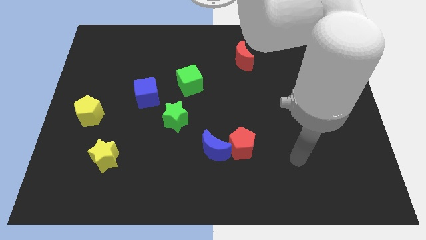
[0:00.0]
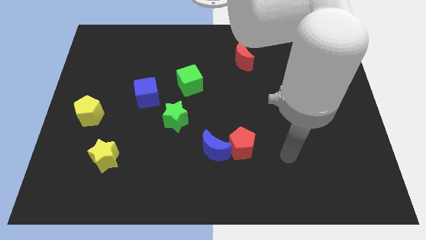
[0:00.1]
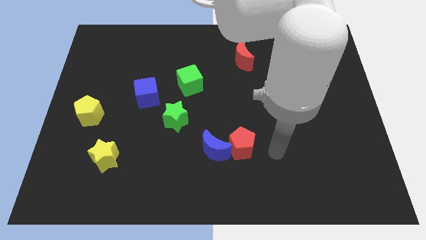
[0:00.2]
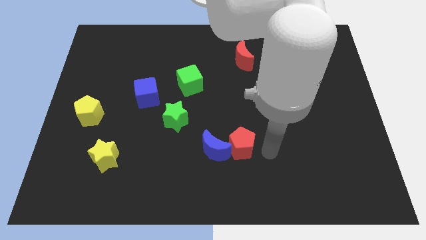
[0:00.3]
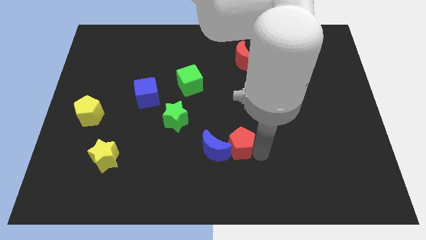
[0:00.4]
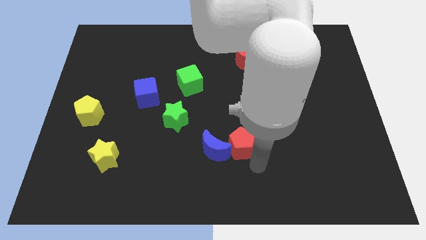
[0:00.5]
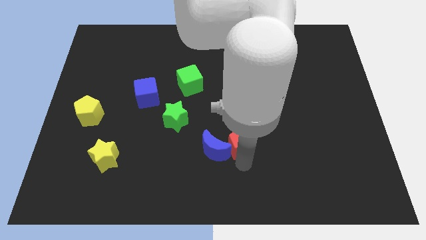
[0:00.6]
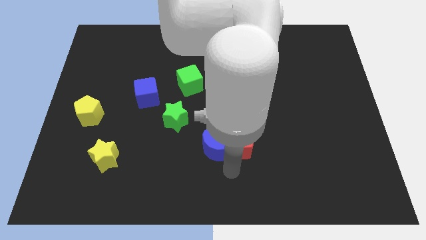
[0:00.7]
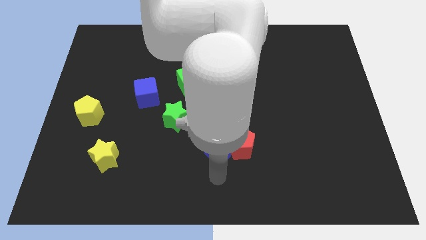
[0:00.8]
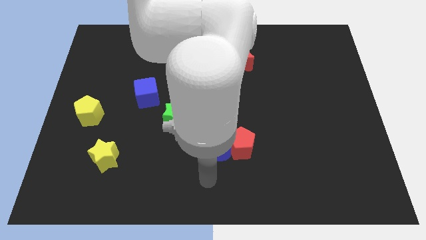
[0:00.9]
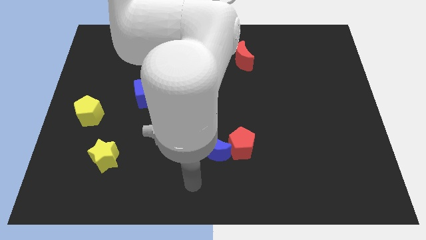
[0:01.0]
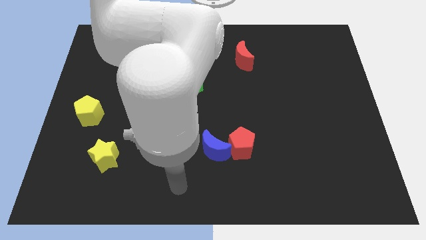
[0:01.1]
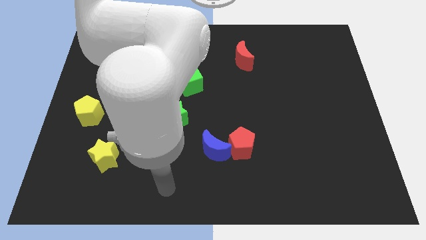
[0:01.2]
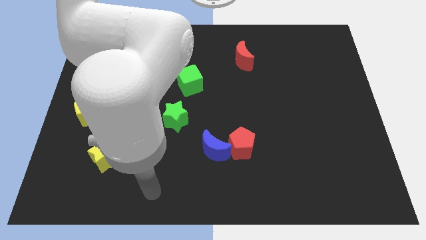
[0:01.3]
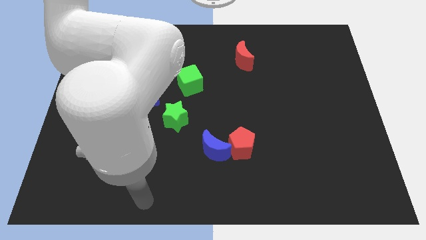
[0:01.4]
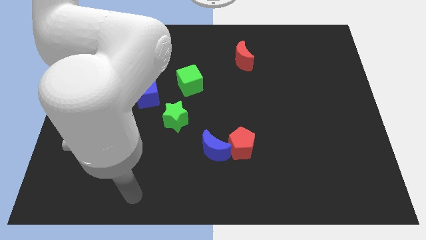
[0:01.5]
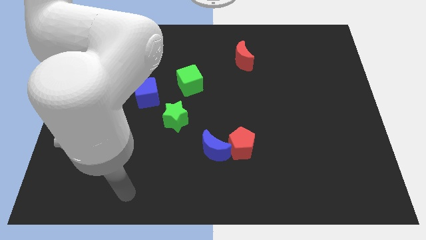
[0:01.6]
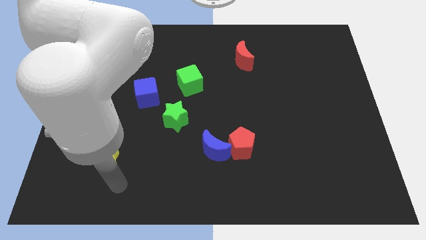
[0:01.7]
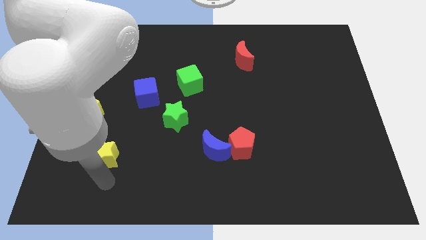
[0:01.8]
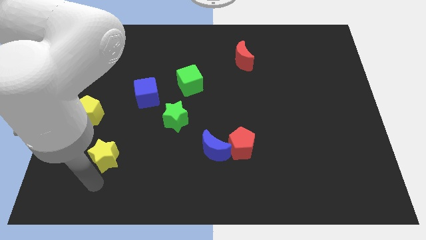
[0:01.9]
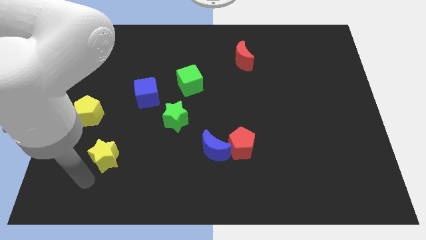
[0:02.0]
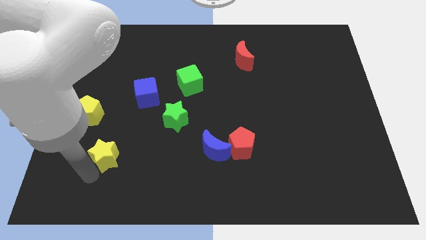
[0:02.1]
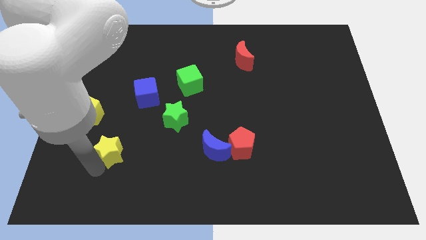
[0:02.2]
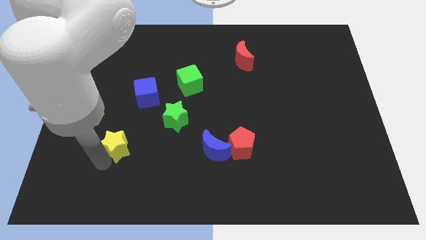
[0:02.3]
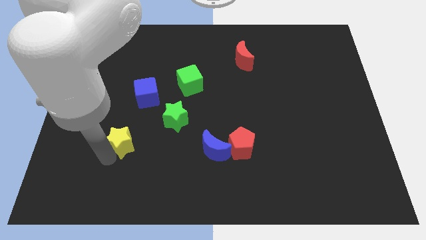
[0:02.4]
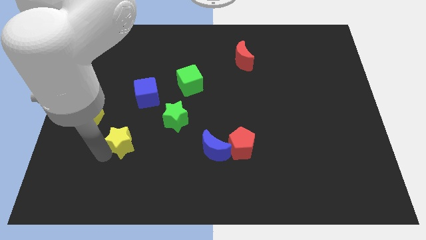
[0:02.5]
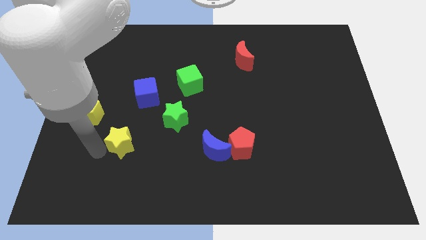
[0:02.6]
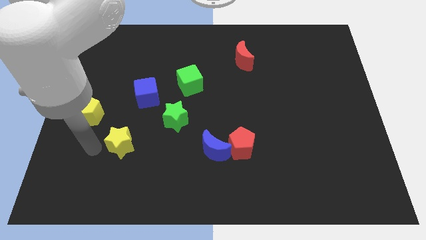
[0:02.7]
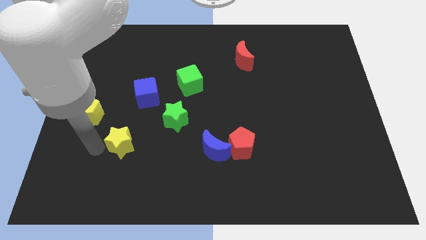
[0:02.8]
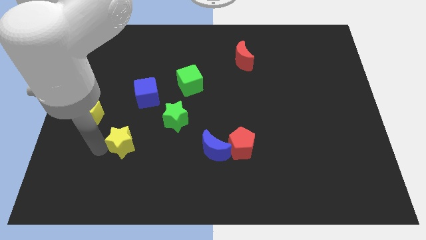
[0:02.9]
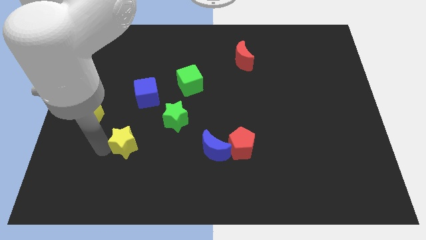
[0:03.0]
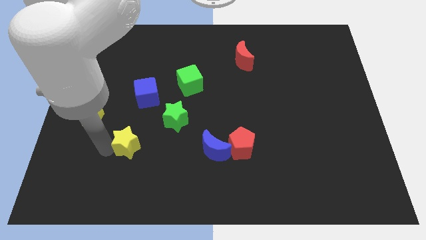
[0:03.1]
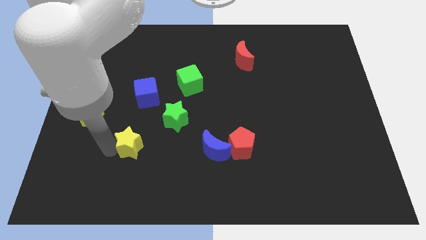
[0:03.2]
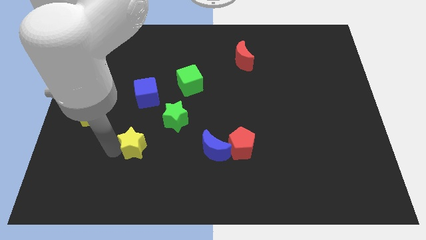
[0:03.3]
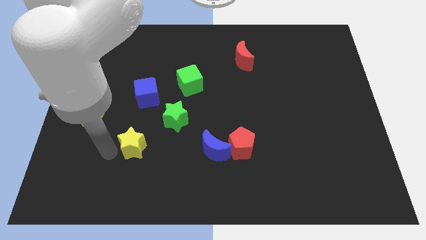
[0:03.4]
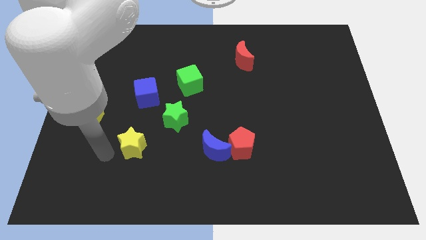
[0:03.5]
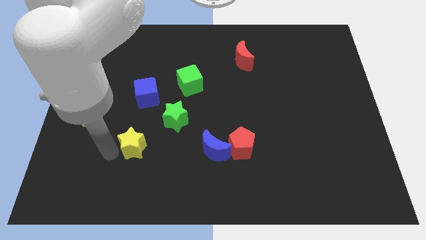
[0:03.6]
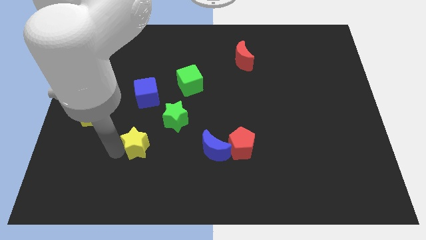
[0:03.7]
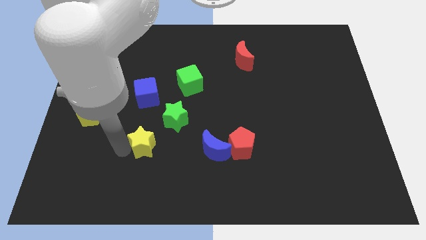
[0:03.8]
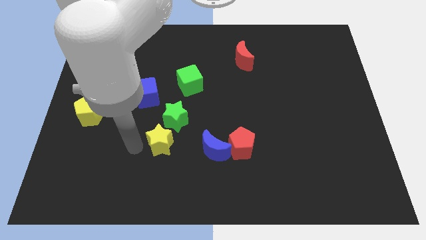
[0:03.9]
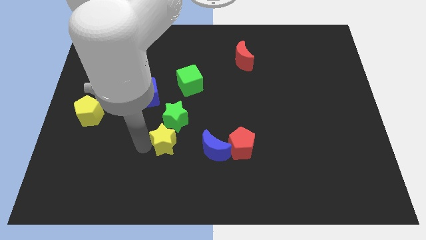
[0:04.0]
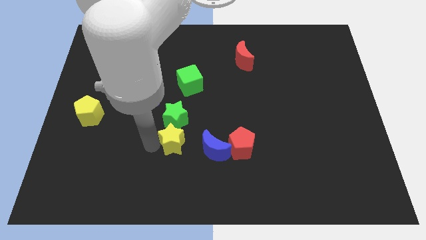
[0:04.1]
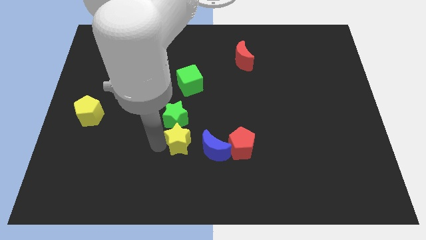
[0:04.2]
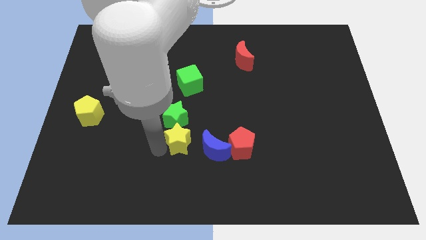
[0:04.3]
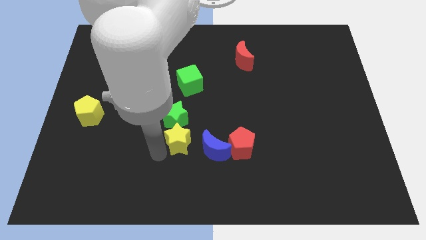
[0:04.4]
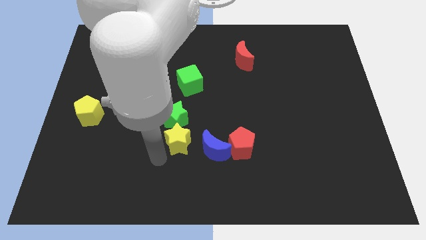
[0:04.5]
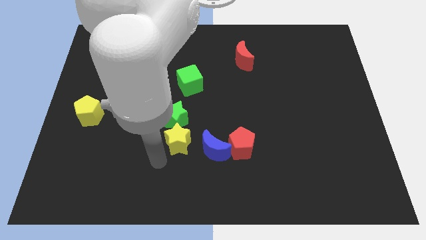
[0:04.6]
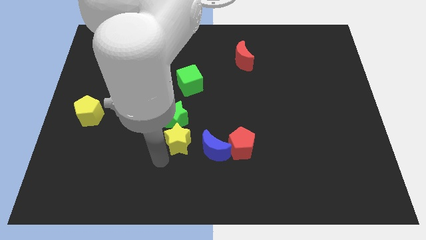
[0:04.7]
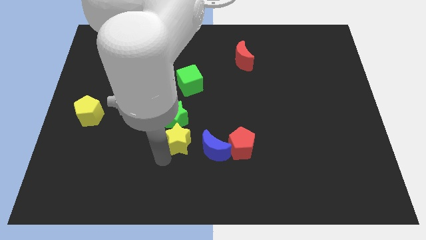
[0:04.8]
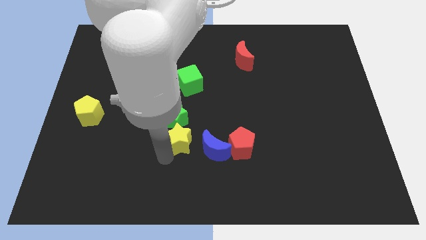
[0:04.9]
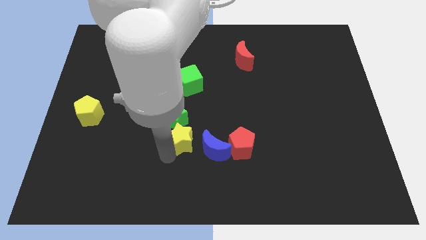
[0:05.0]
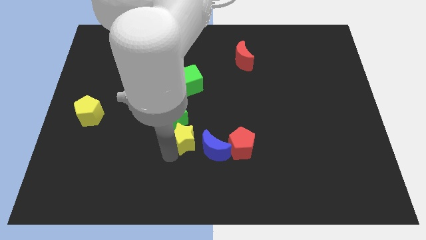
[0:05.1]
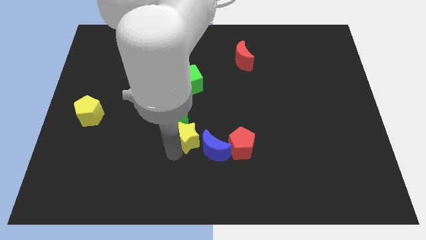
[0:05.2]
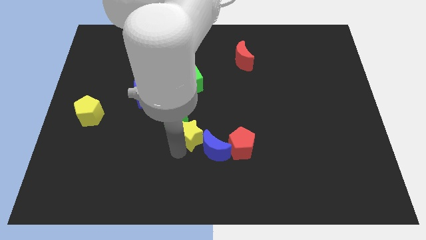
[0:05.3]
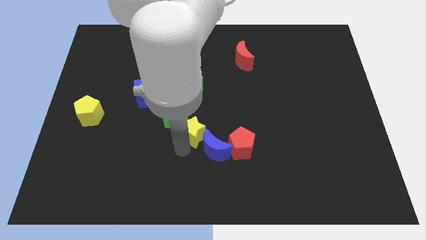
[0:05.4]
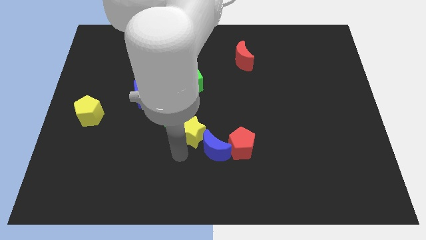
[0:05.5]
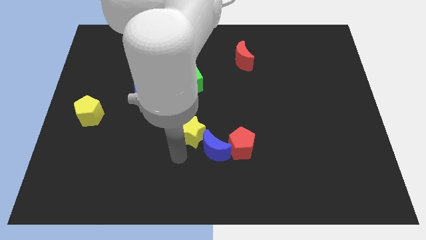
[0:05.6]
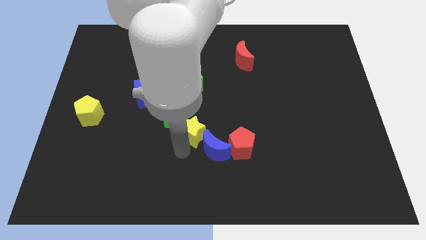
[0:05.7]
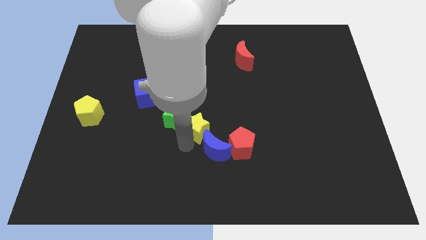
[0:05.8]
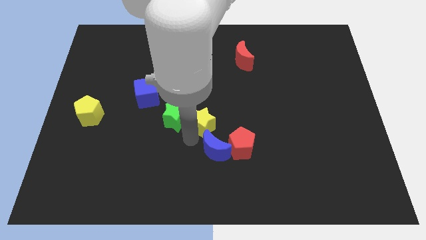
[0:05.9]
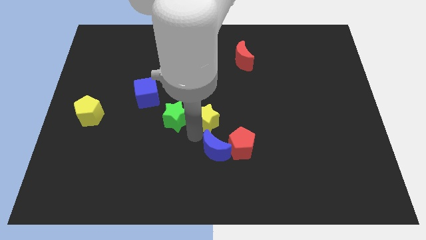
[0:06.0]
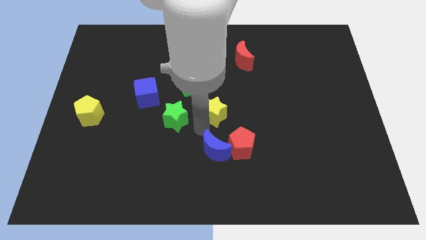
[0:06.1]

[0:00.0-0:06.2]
push the yellow star up and right diagonally

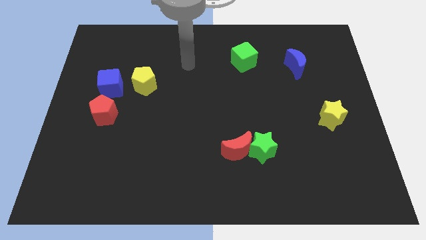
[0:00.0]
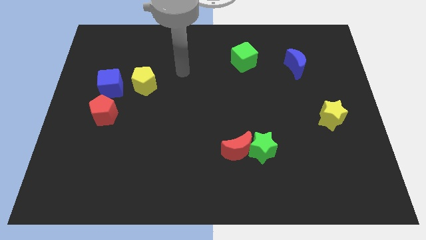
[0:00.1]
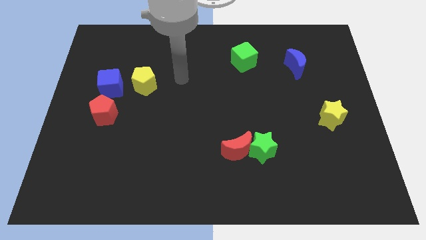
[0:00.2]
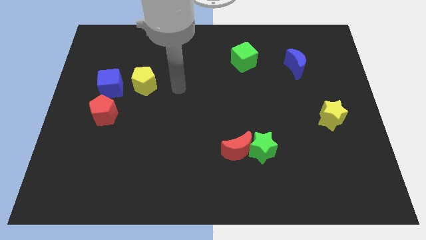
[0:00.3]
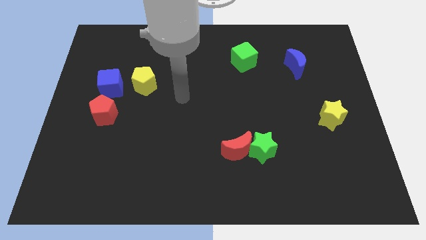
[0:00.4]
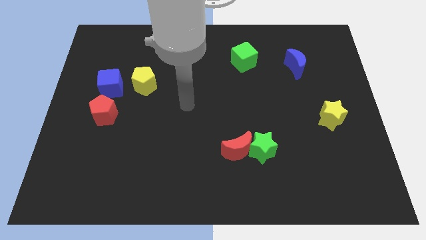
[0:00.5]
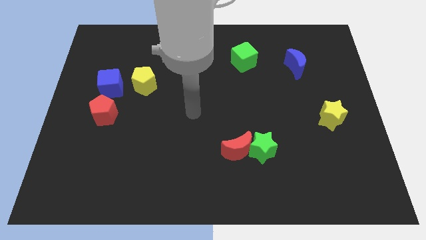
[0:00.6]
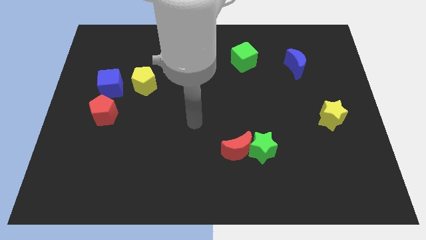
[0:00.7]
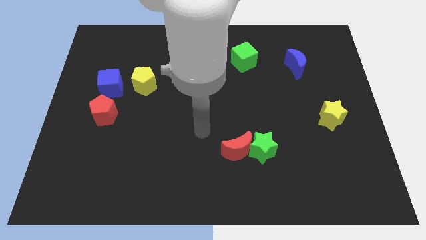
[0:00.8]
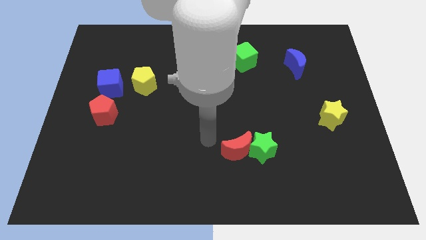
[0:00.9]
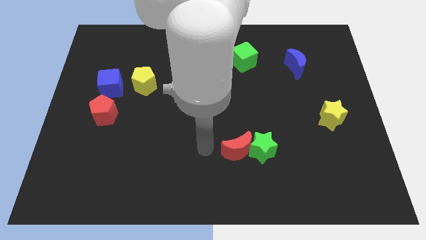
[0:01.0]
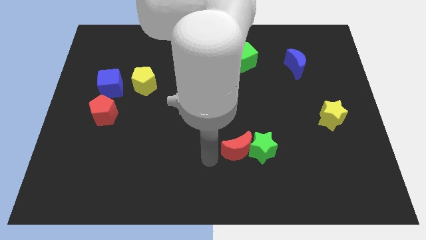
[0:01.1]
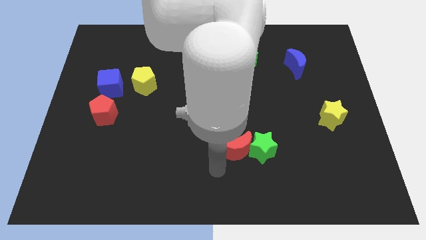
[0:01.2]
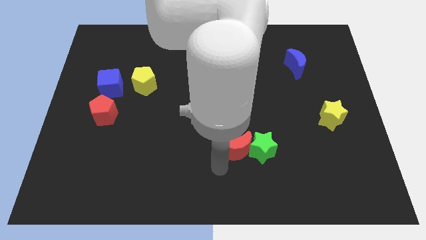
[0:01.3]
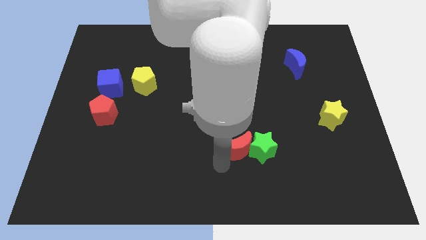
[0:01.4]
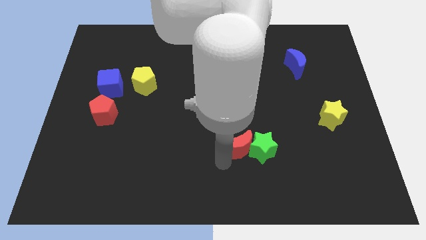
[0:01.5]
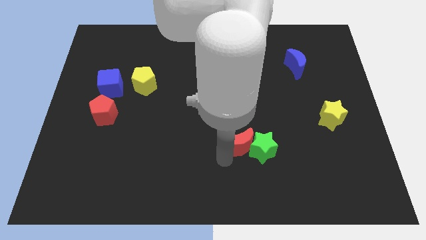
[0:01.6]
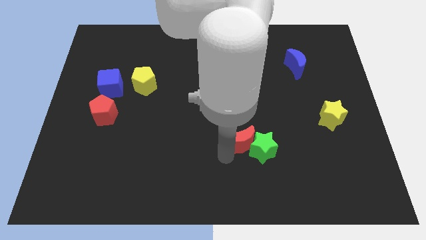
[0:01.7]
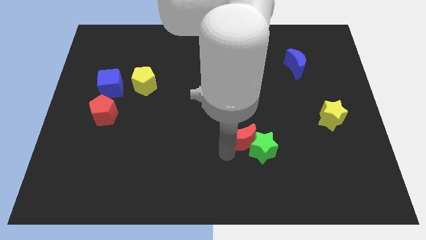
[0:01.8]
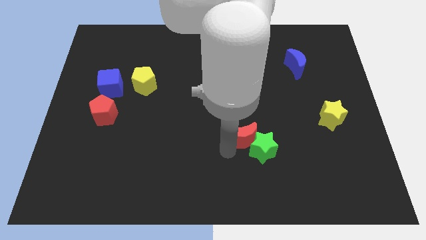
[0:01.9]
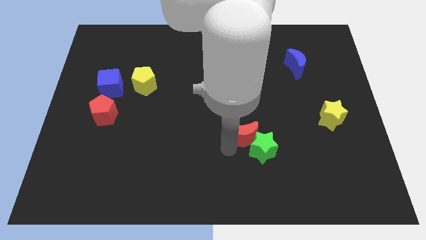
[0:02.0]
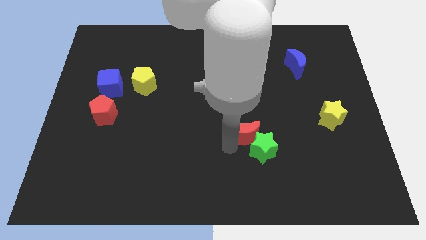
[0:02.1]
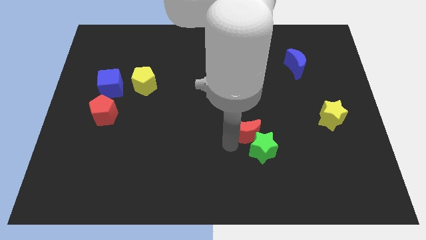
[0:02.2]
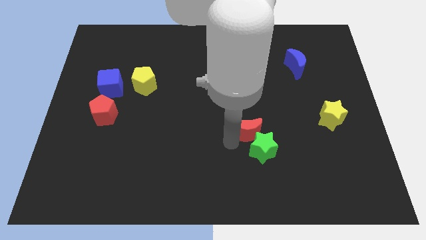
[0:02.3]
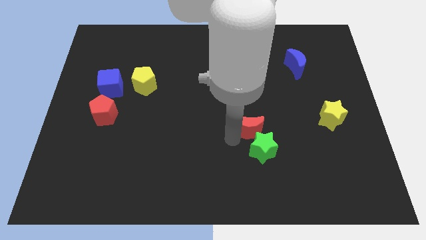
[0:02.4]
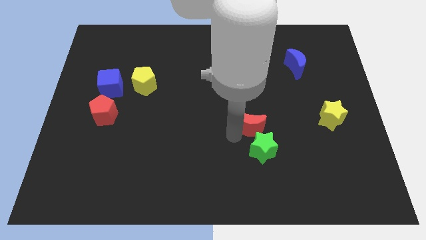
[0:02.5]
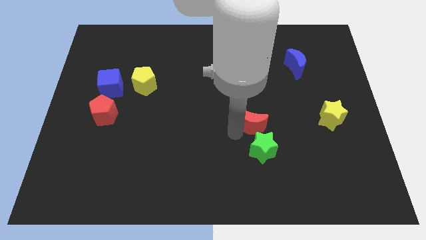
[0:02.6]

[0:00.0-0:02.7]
push the red moon a bit upwards and then right
